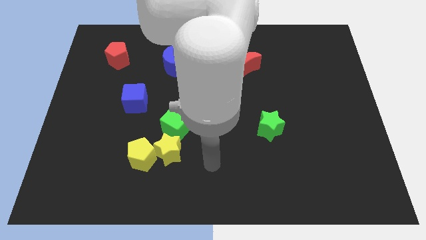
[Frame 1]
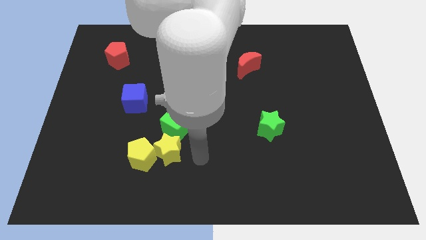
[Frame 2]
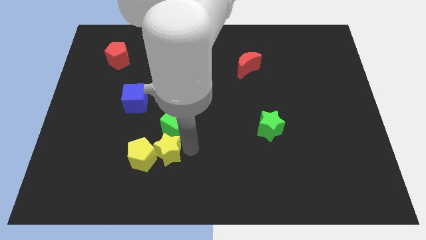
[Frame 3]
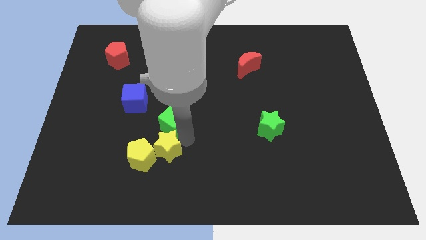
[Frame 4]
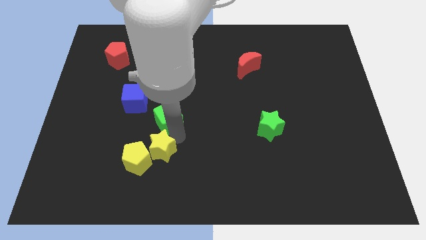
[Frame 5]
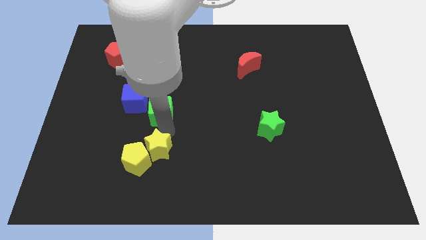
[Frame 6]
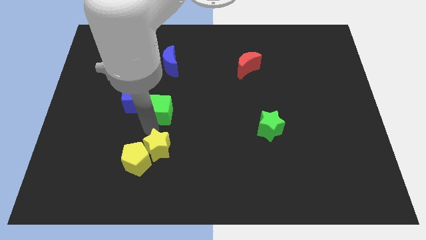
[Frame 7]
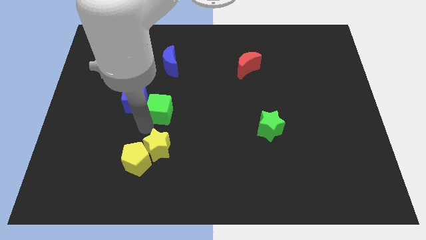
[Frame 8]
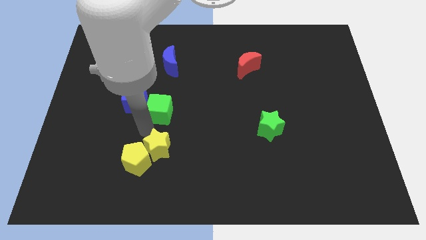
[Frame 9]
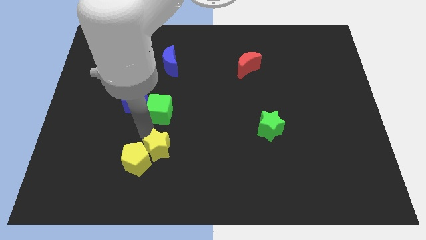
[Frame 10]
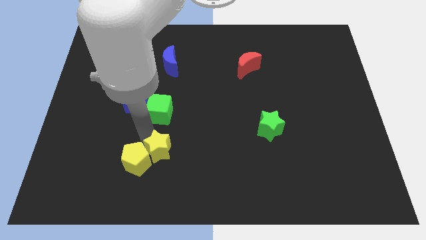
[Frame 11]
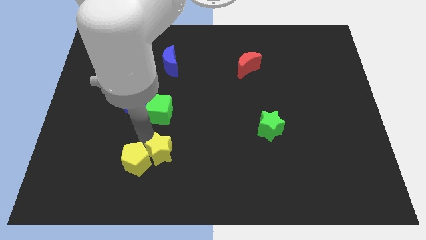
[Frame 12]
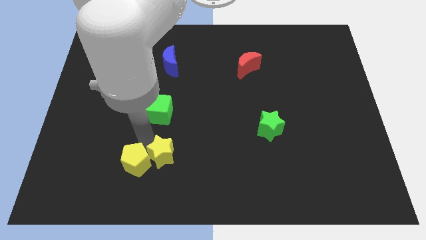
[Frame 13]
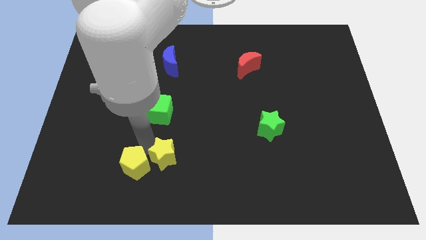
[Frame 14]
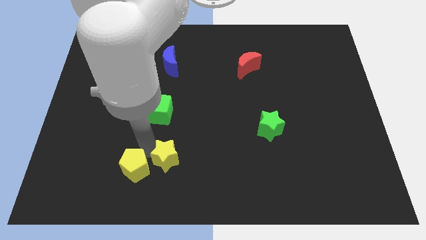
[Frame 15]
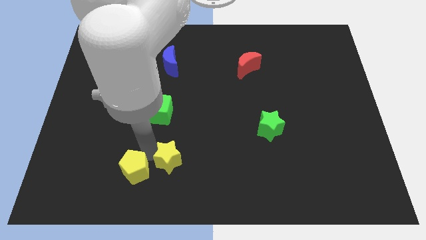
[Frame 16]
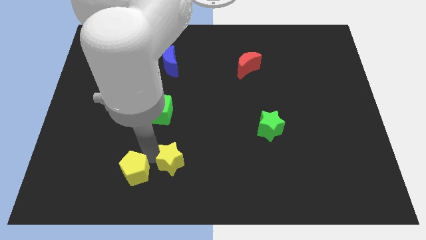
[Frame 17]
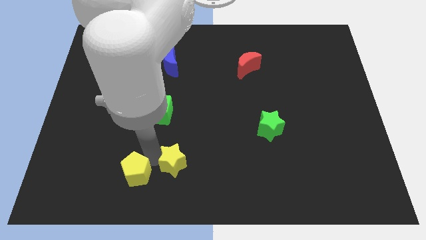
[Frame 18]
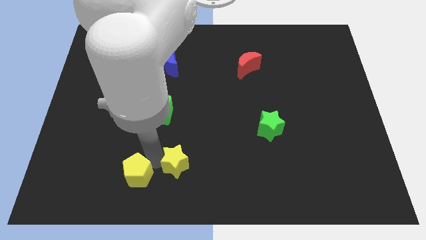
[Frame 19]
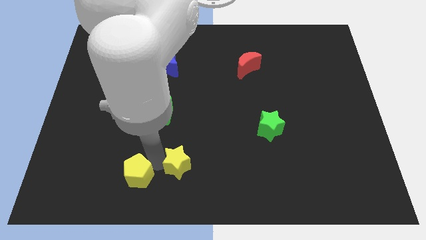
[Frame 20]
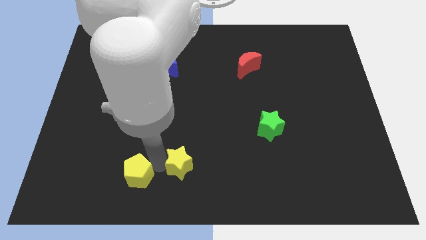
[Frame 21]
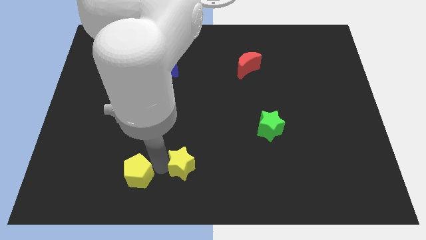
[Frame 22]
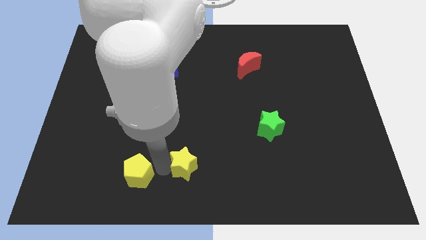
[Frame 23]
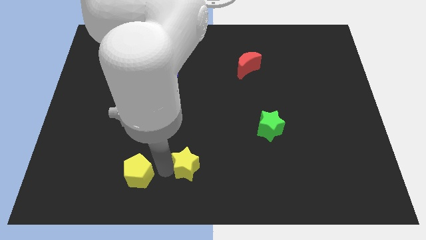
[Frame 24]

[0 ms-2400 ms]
move the yellow star away from the yellow pentagon and green cube

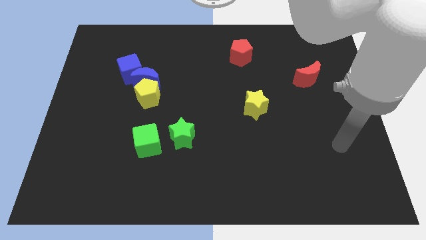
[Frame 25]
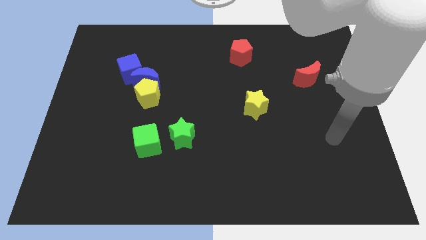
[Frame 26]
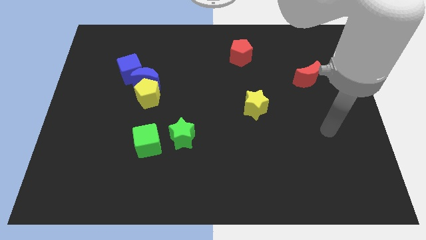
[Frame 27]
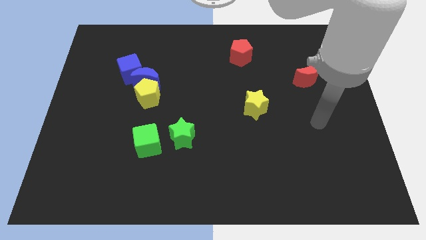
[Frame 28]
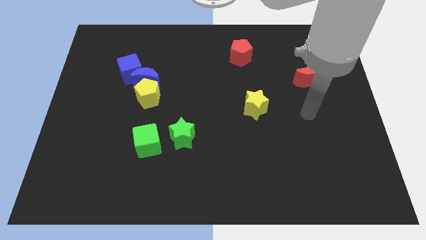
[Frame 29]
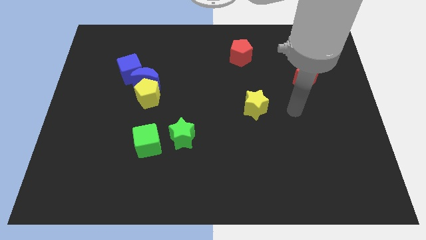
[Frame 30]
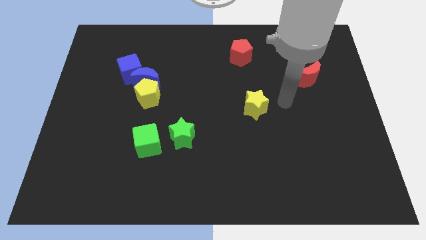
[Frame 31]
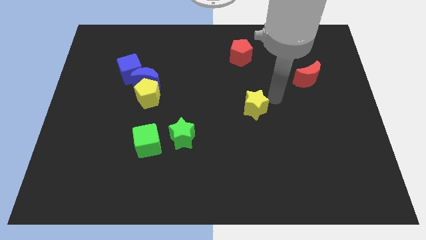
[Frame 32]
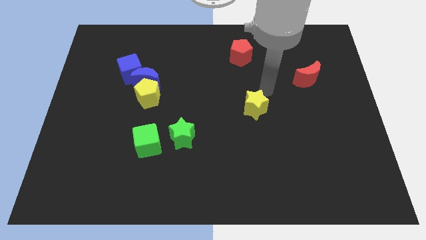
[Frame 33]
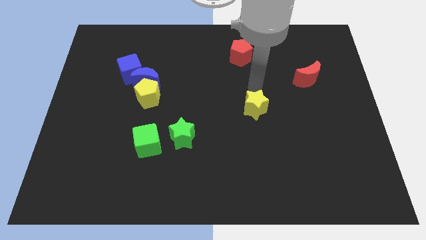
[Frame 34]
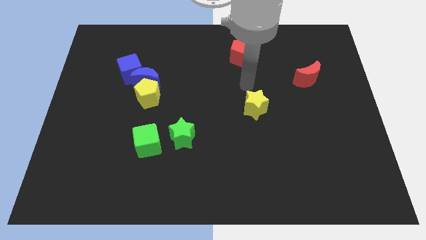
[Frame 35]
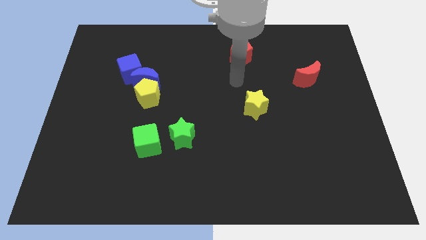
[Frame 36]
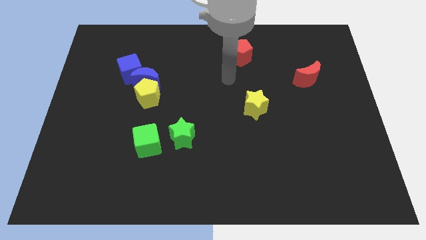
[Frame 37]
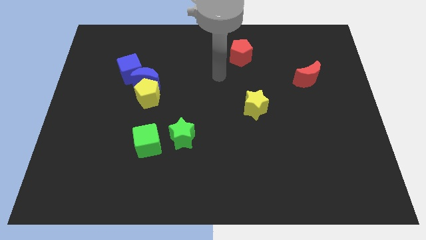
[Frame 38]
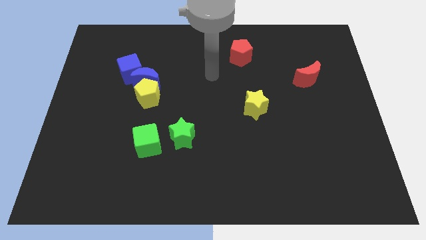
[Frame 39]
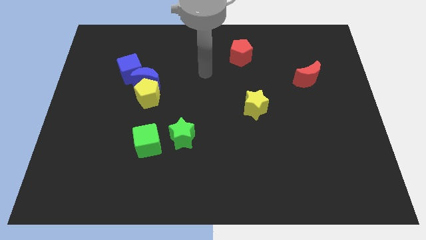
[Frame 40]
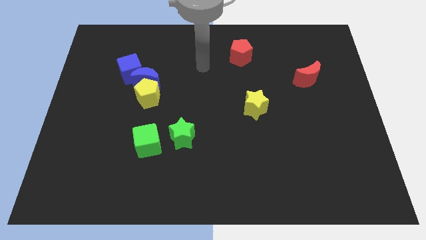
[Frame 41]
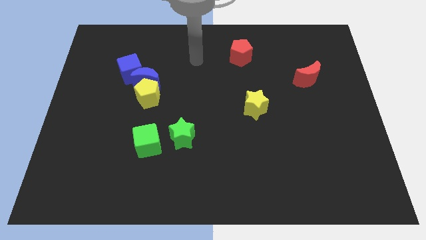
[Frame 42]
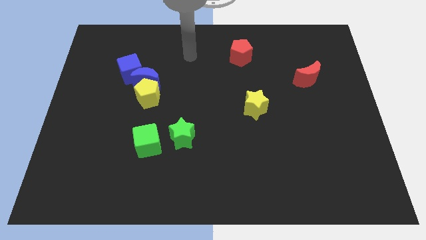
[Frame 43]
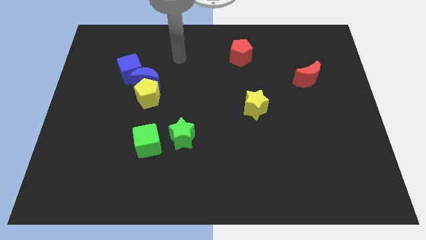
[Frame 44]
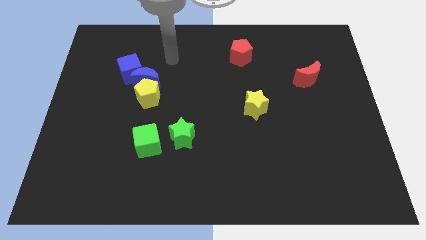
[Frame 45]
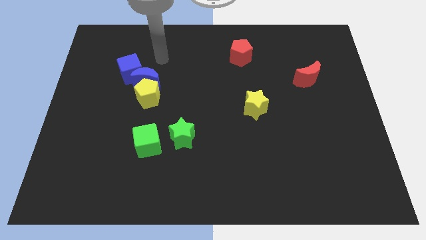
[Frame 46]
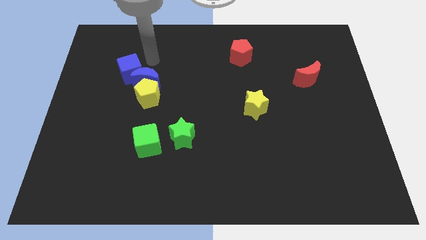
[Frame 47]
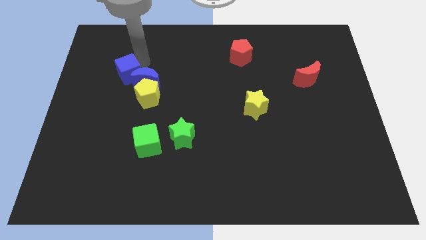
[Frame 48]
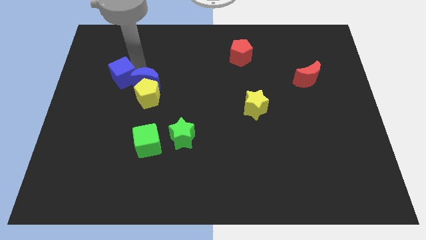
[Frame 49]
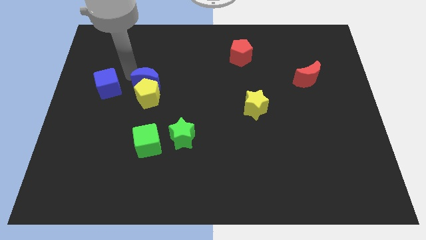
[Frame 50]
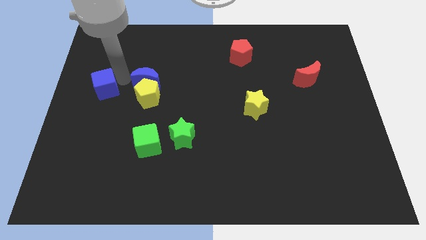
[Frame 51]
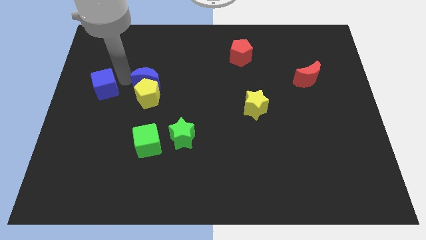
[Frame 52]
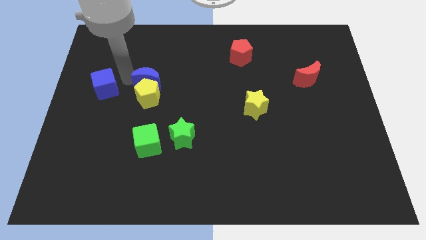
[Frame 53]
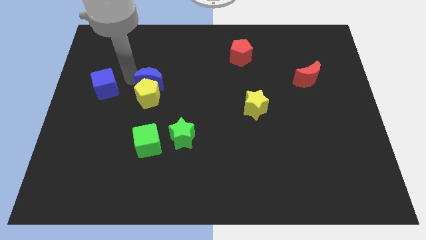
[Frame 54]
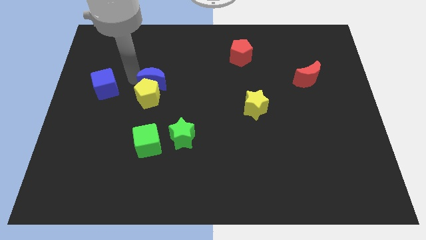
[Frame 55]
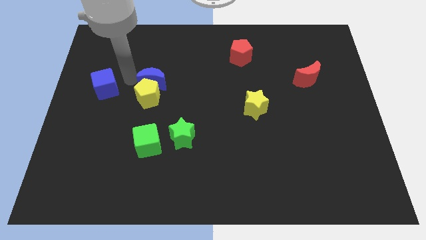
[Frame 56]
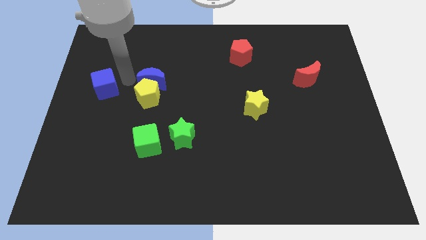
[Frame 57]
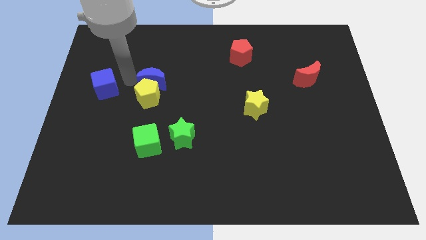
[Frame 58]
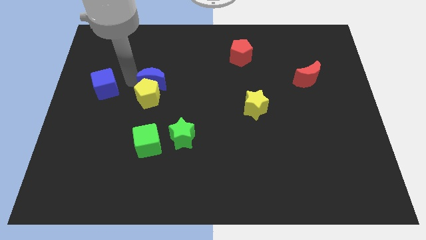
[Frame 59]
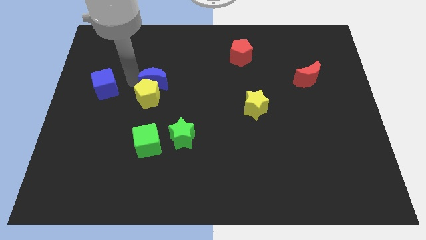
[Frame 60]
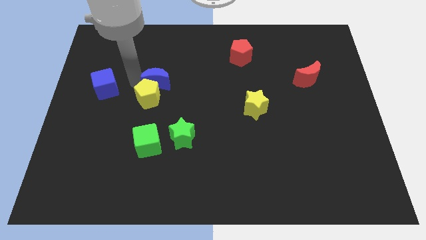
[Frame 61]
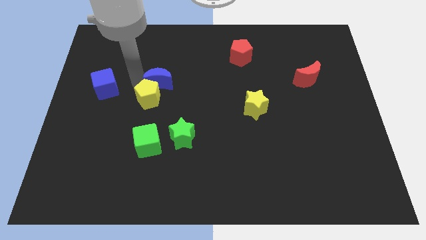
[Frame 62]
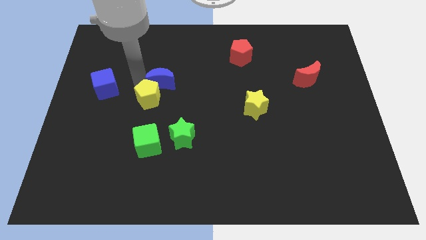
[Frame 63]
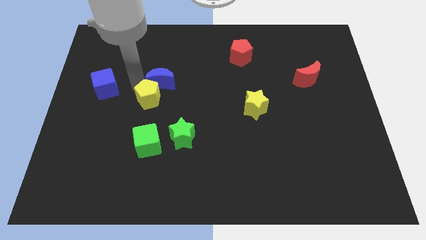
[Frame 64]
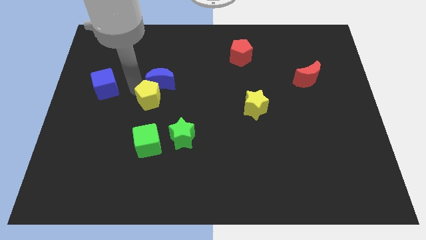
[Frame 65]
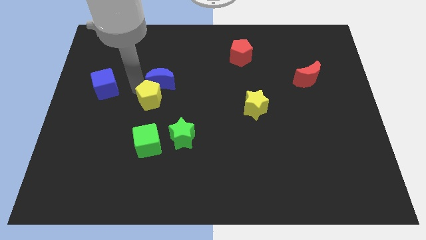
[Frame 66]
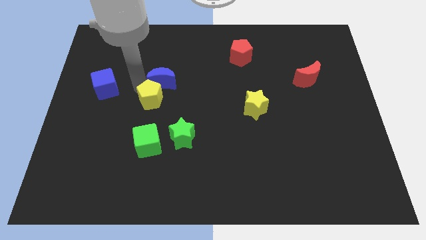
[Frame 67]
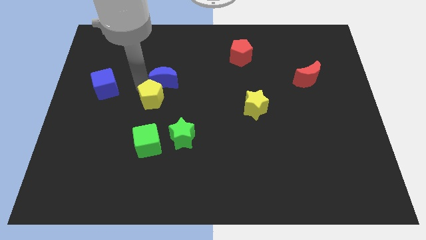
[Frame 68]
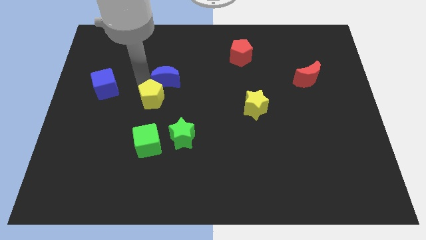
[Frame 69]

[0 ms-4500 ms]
pull the blue moon apart from the yellow pentagon and blue cube

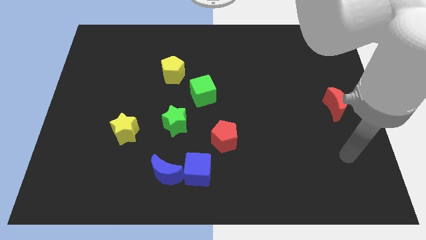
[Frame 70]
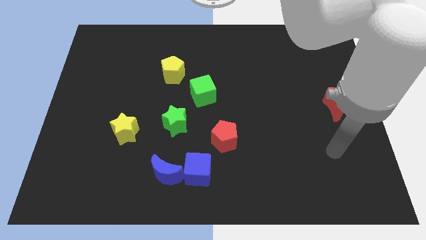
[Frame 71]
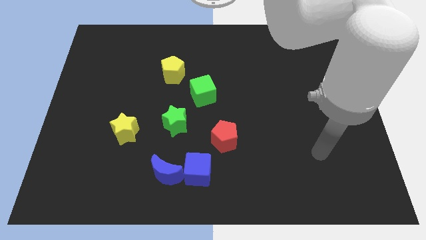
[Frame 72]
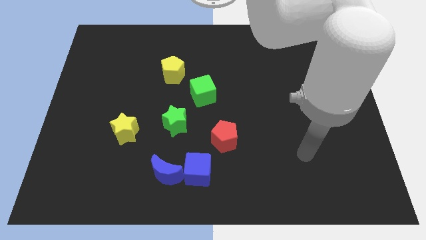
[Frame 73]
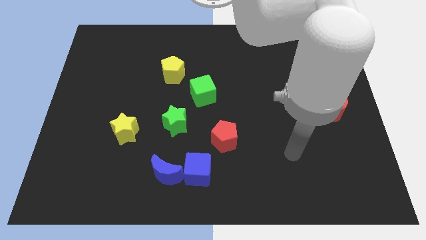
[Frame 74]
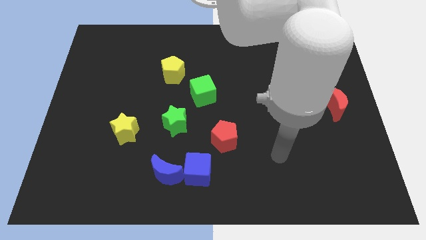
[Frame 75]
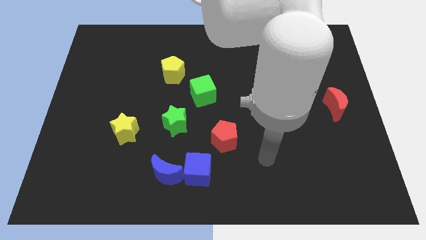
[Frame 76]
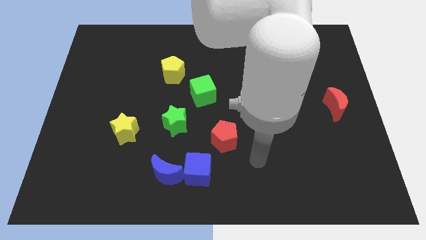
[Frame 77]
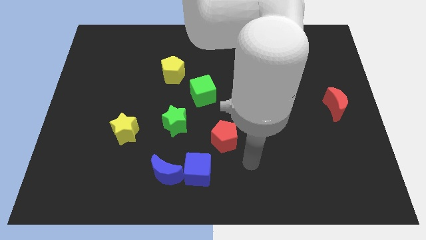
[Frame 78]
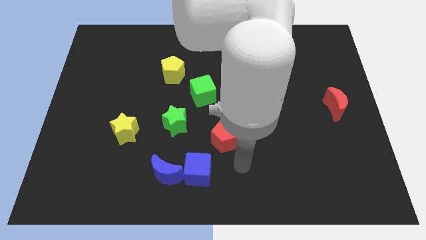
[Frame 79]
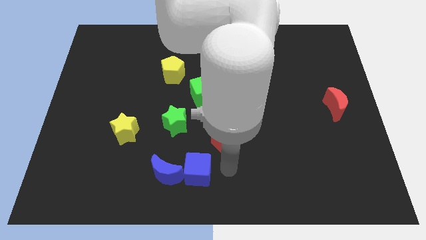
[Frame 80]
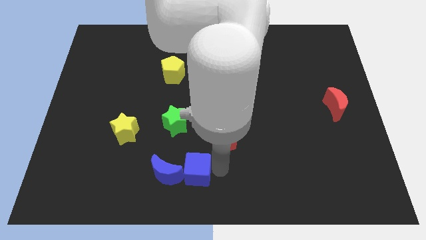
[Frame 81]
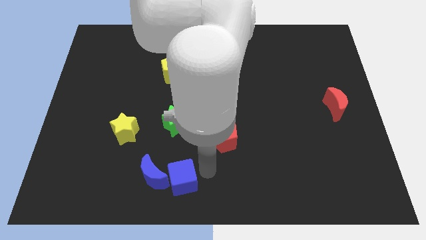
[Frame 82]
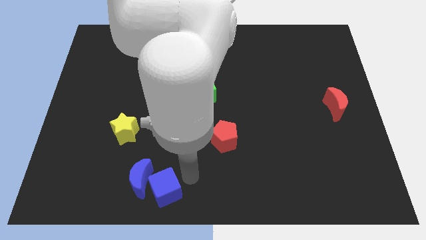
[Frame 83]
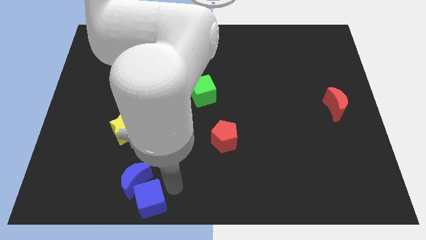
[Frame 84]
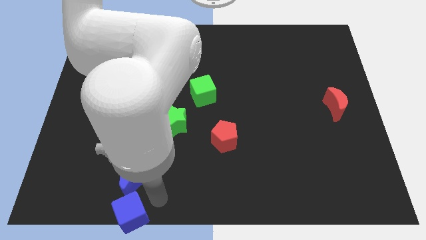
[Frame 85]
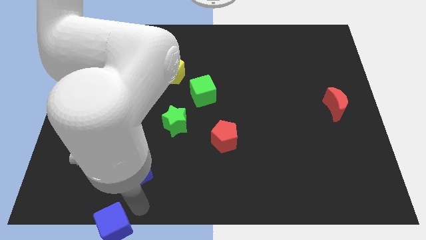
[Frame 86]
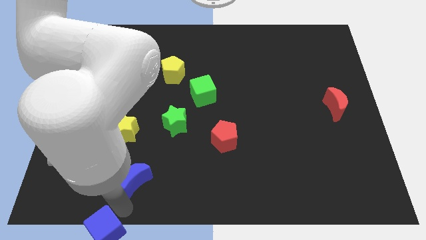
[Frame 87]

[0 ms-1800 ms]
pull the blue moon apart from the blue cube

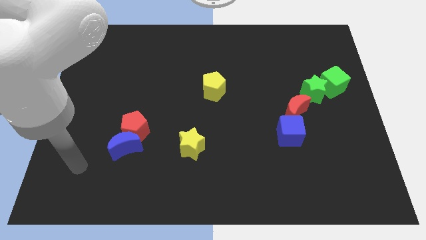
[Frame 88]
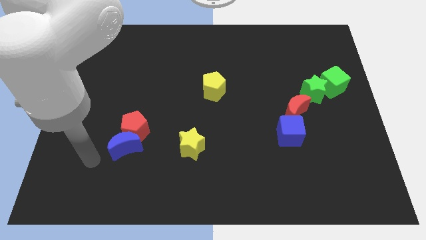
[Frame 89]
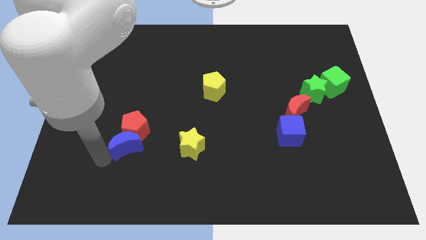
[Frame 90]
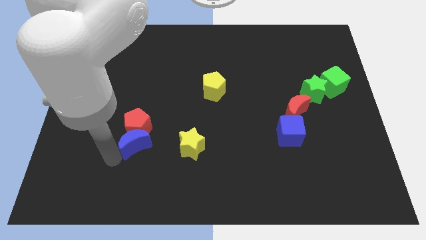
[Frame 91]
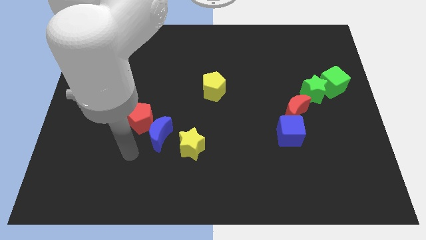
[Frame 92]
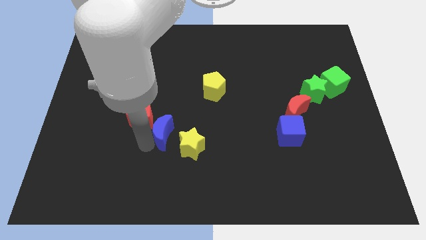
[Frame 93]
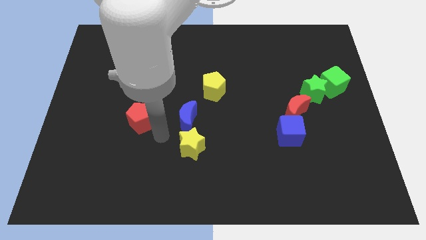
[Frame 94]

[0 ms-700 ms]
move the red pentagon away from the blue moon
